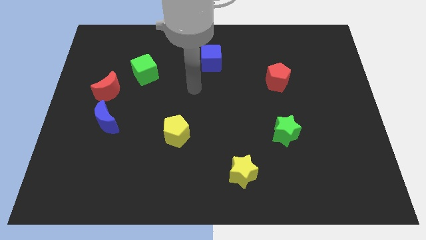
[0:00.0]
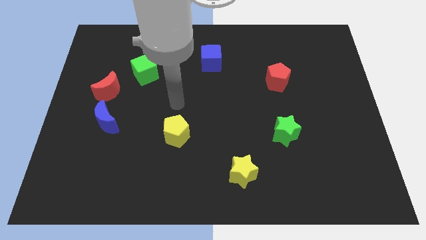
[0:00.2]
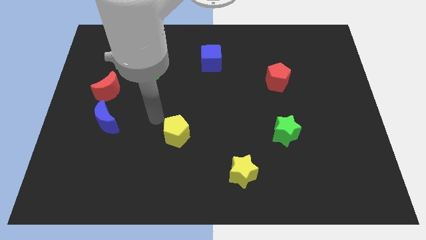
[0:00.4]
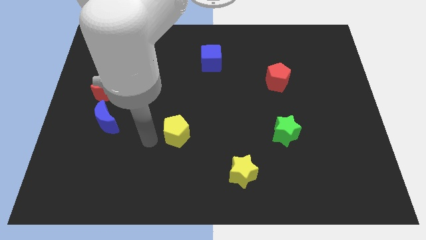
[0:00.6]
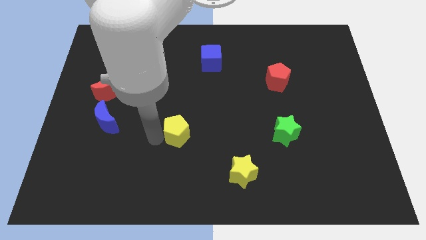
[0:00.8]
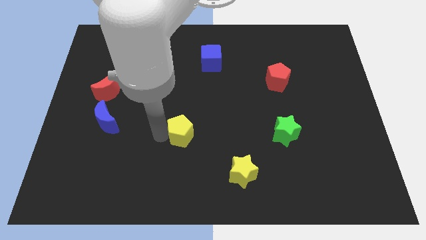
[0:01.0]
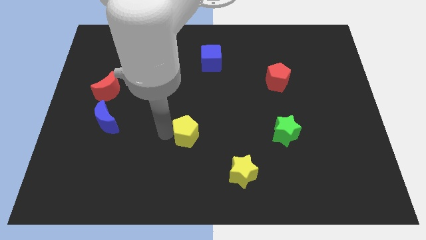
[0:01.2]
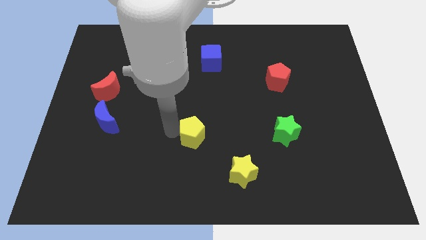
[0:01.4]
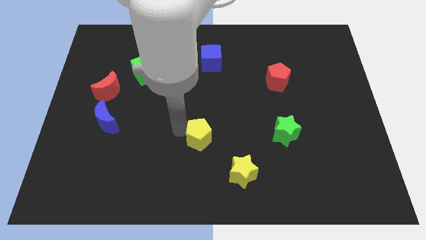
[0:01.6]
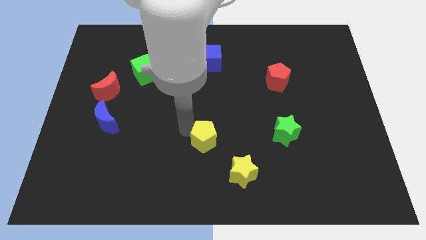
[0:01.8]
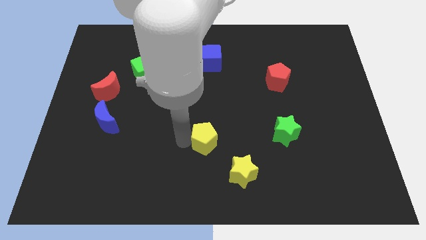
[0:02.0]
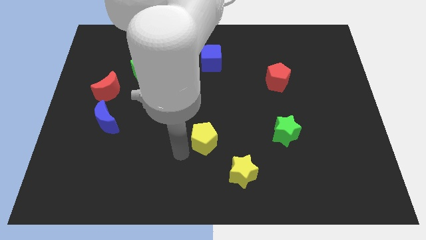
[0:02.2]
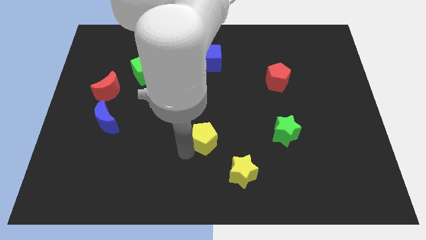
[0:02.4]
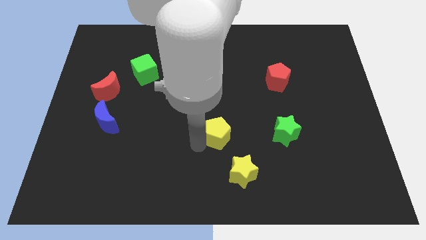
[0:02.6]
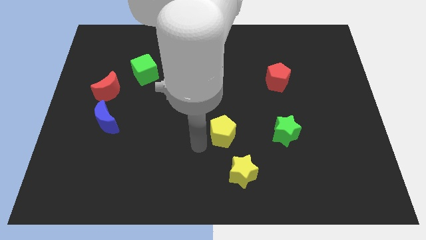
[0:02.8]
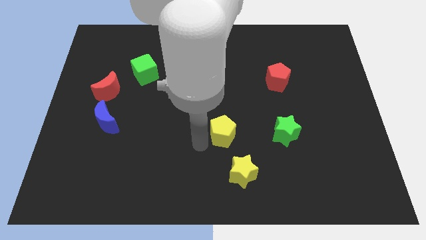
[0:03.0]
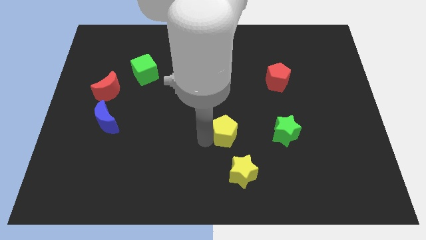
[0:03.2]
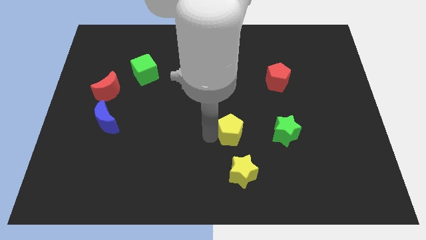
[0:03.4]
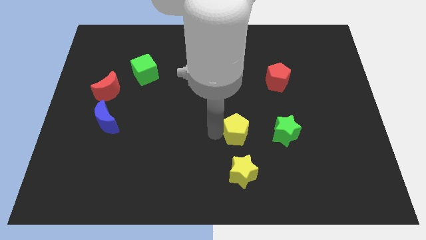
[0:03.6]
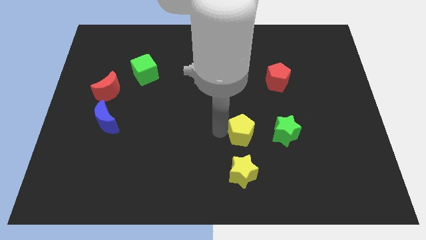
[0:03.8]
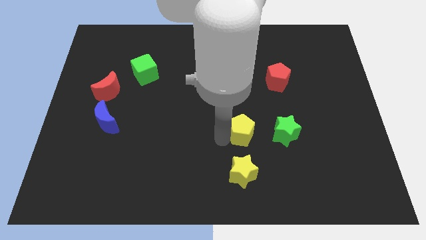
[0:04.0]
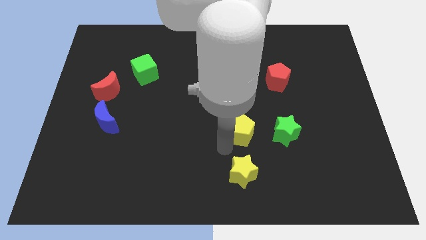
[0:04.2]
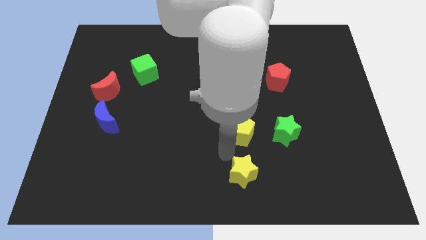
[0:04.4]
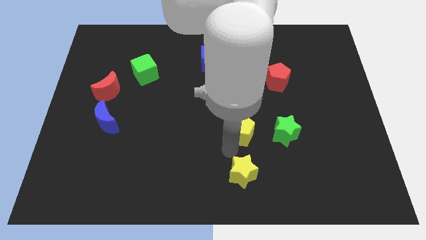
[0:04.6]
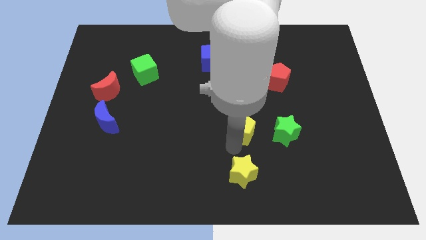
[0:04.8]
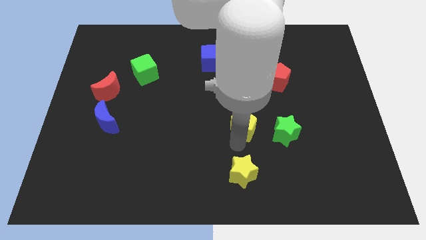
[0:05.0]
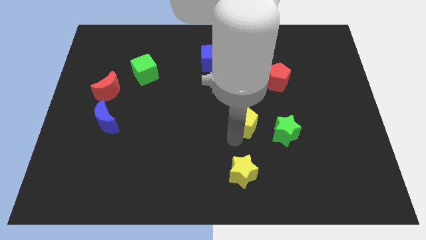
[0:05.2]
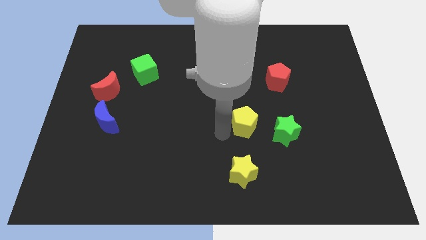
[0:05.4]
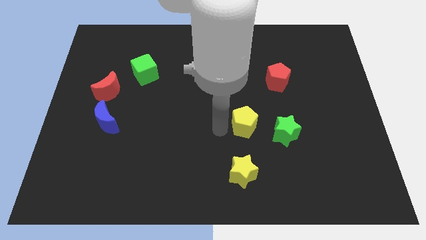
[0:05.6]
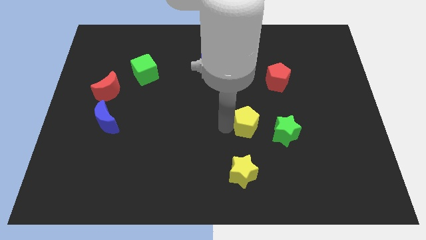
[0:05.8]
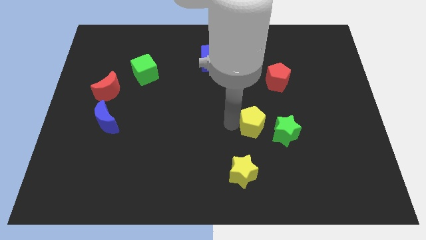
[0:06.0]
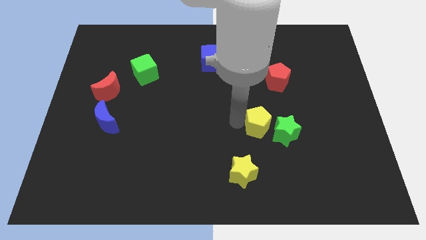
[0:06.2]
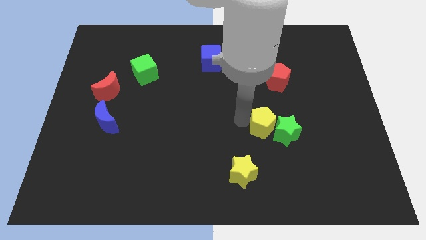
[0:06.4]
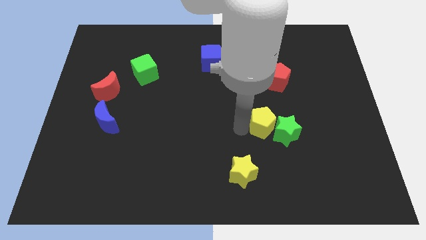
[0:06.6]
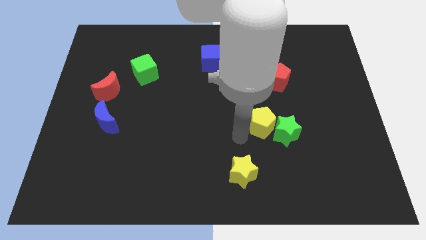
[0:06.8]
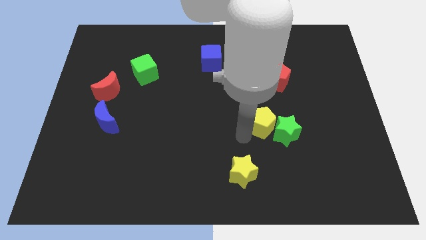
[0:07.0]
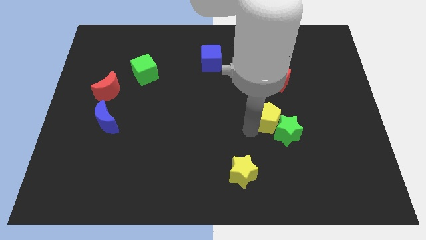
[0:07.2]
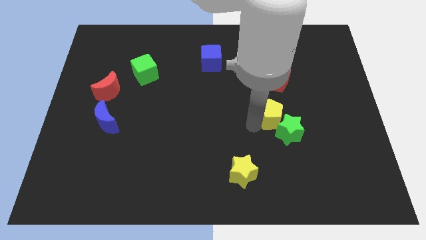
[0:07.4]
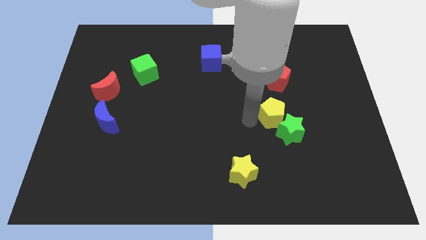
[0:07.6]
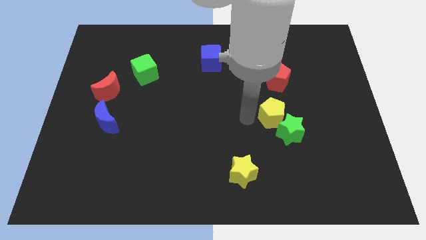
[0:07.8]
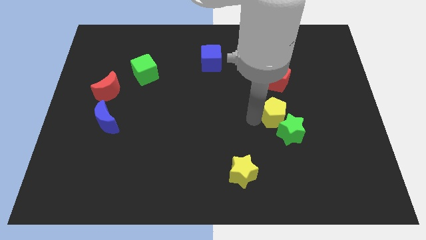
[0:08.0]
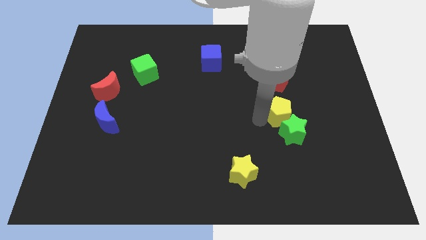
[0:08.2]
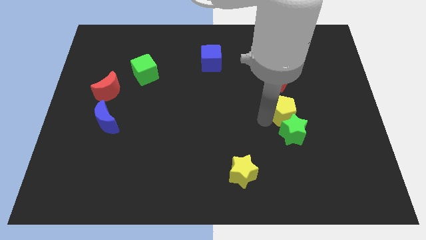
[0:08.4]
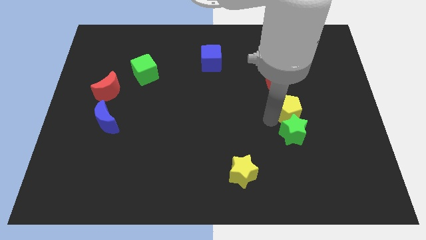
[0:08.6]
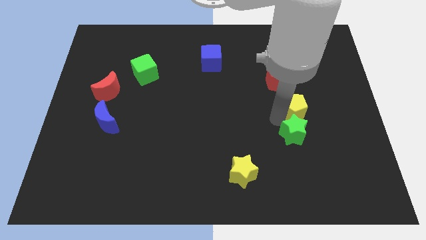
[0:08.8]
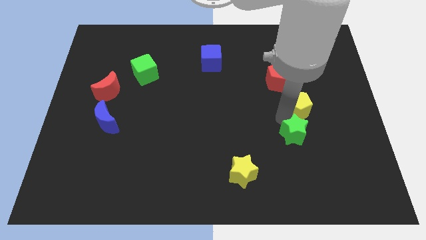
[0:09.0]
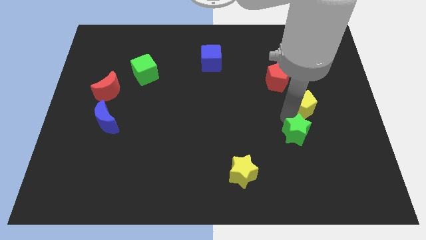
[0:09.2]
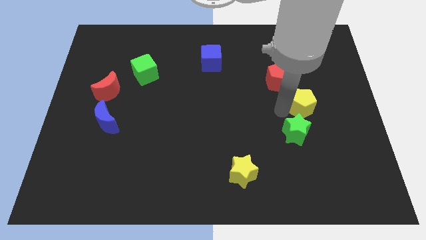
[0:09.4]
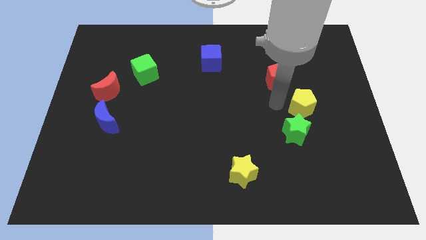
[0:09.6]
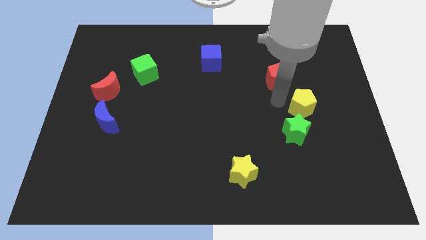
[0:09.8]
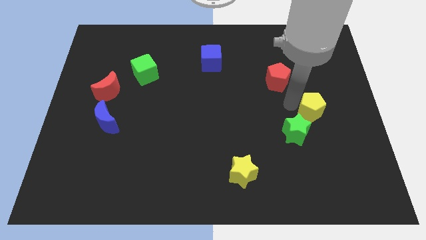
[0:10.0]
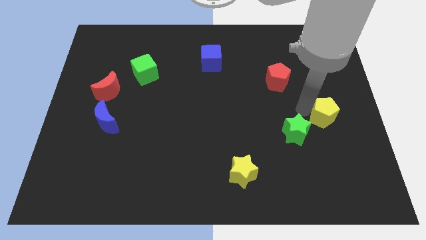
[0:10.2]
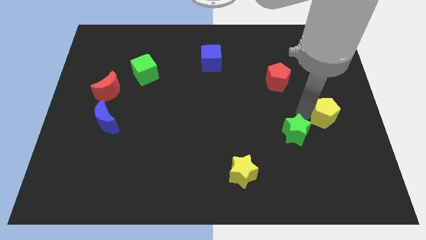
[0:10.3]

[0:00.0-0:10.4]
move the yellow pentagon to the right side of the board

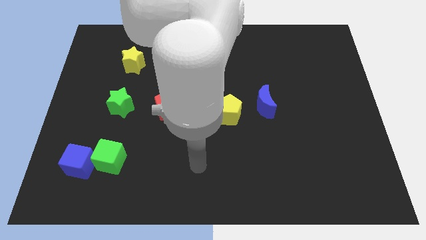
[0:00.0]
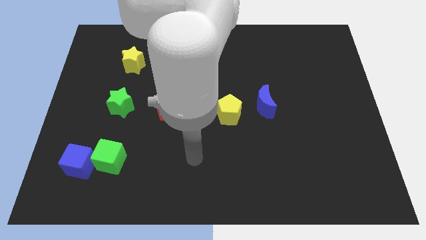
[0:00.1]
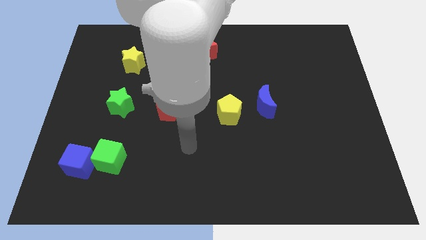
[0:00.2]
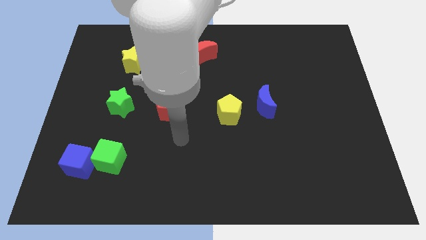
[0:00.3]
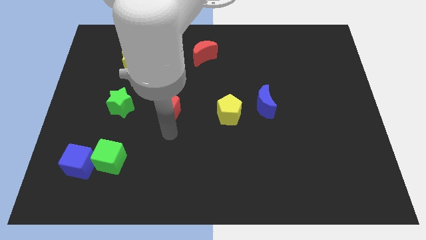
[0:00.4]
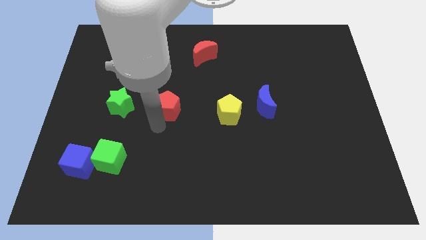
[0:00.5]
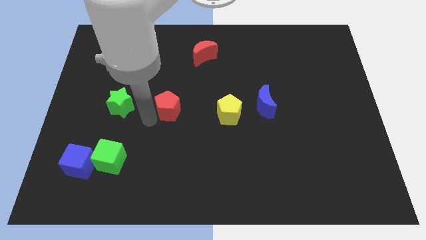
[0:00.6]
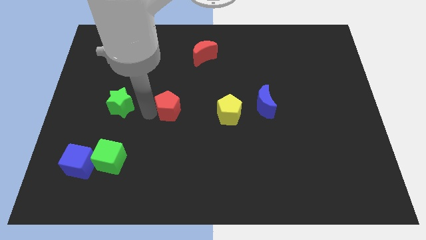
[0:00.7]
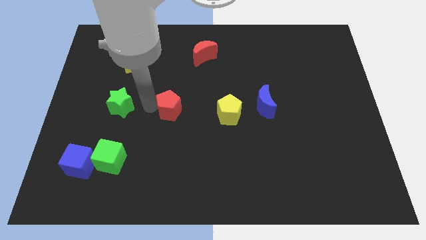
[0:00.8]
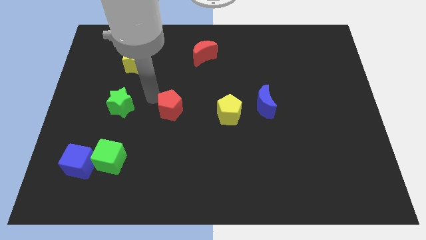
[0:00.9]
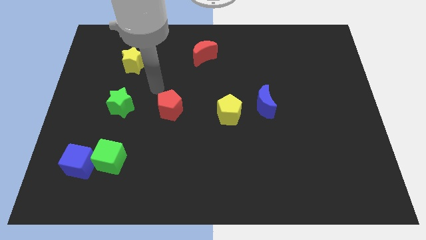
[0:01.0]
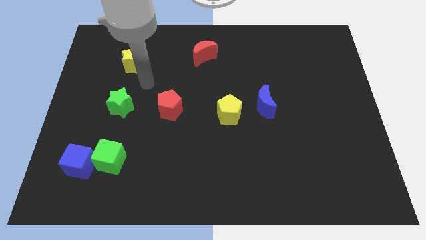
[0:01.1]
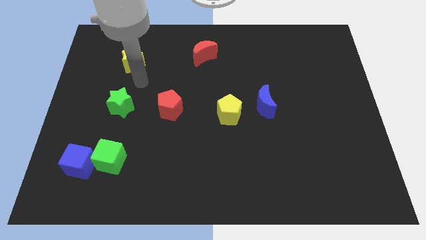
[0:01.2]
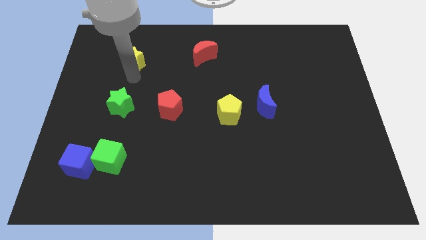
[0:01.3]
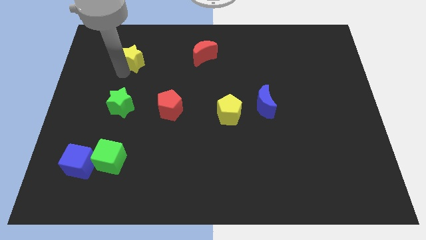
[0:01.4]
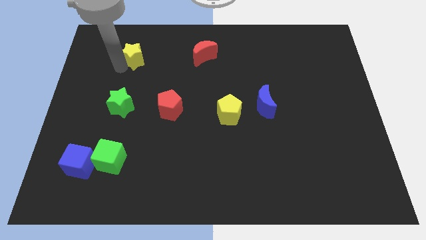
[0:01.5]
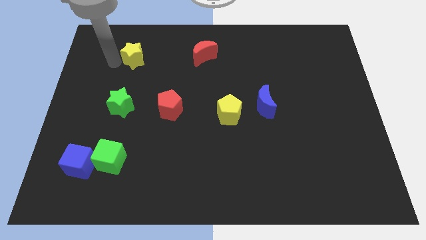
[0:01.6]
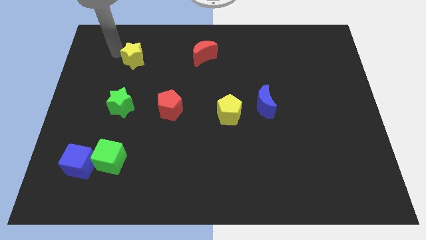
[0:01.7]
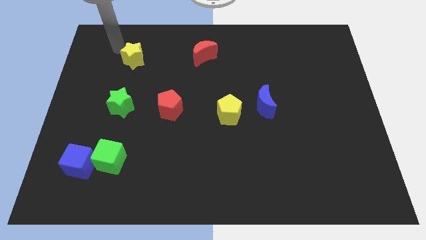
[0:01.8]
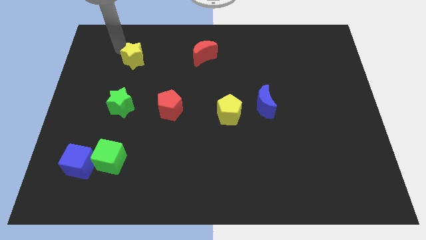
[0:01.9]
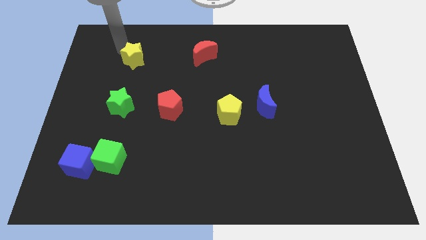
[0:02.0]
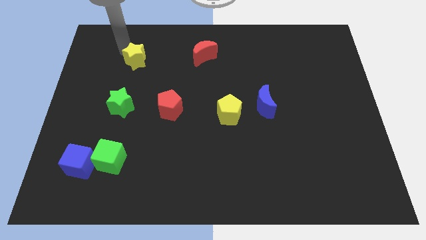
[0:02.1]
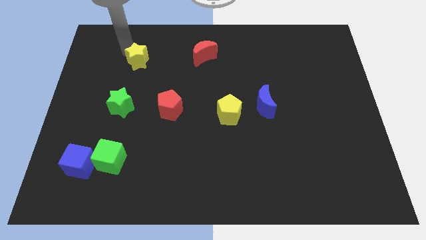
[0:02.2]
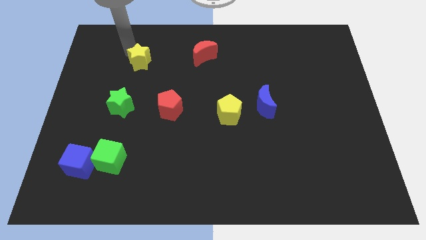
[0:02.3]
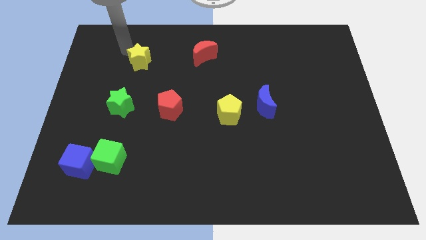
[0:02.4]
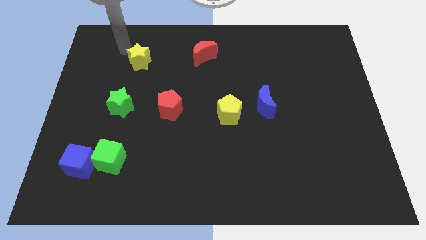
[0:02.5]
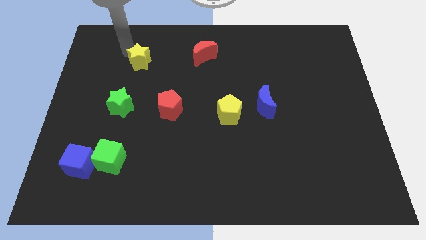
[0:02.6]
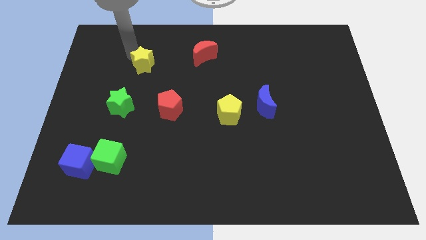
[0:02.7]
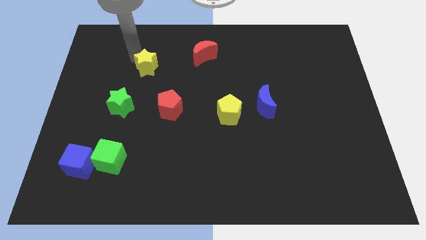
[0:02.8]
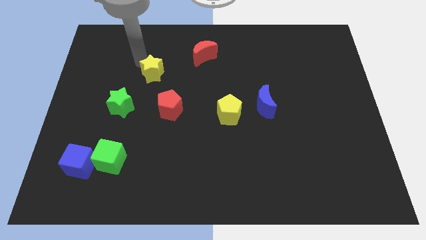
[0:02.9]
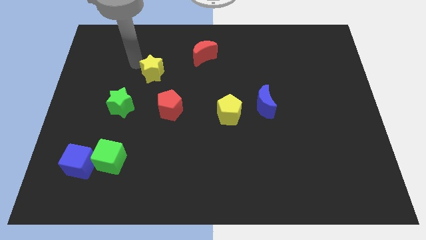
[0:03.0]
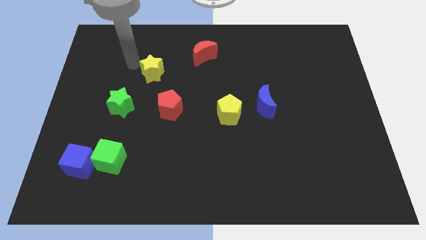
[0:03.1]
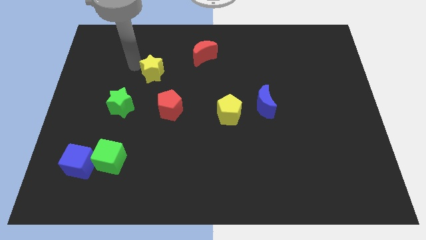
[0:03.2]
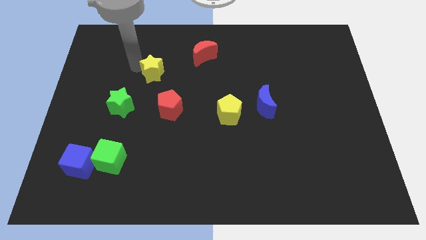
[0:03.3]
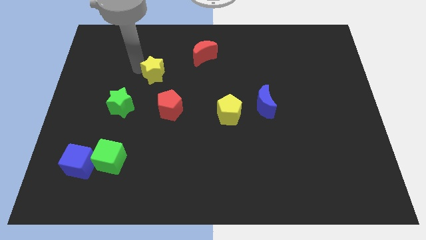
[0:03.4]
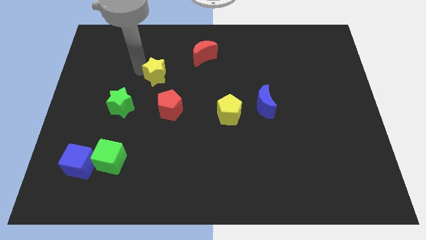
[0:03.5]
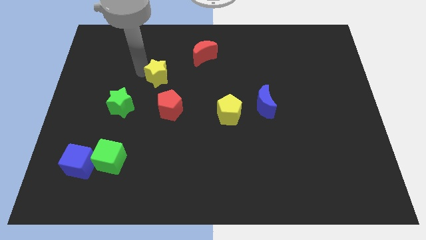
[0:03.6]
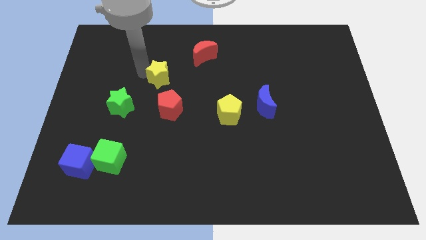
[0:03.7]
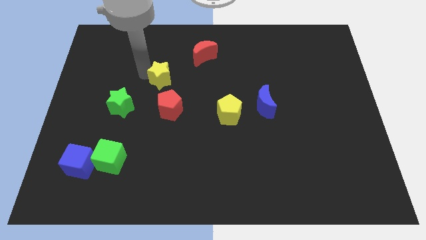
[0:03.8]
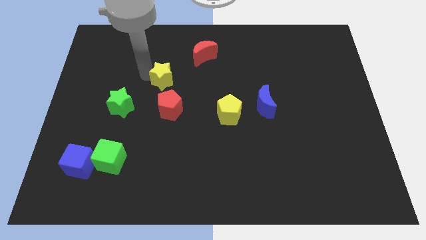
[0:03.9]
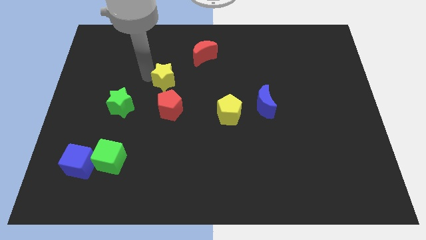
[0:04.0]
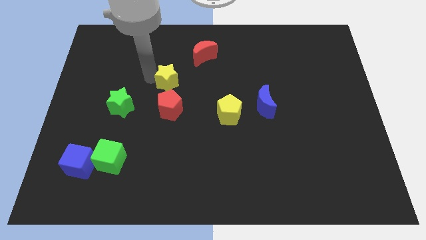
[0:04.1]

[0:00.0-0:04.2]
put the yellow star to the middle of the board
